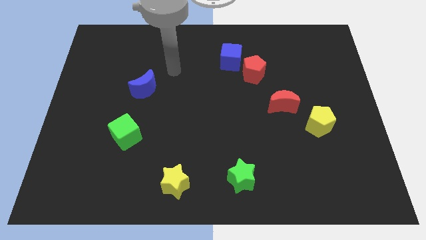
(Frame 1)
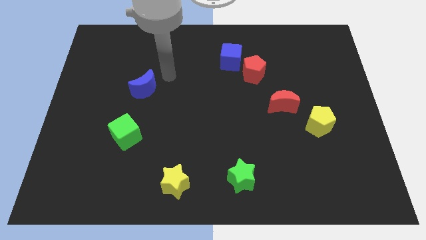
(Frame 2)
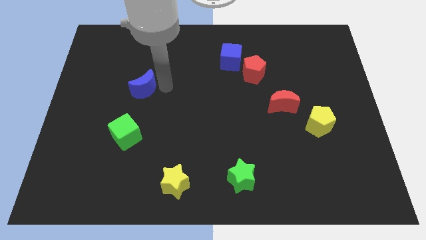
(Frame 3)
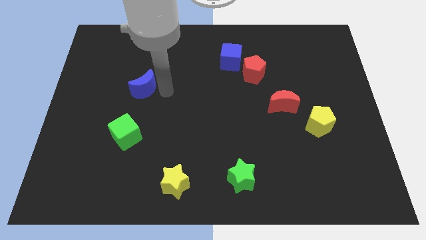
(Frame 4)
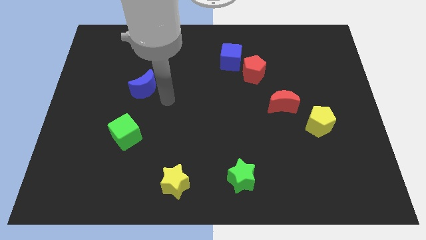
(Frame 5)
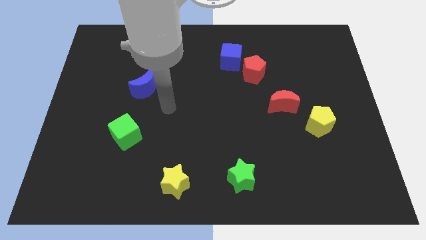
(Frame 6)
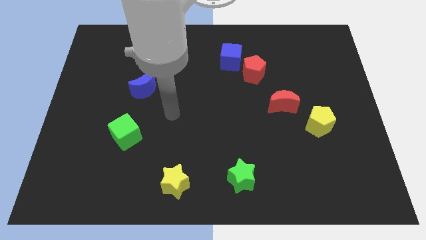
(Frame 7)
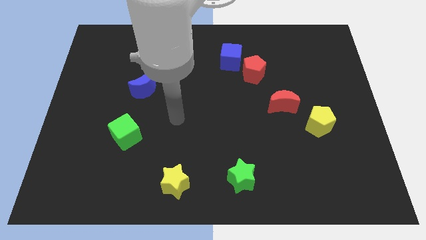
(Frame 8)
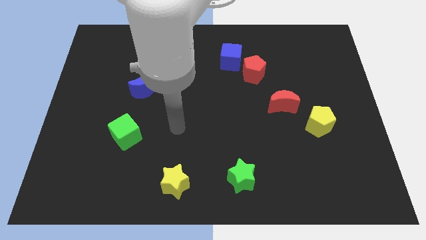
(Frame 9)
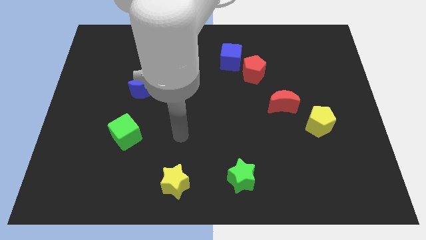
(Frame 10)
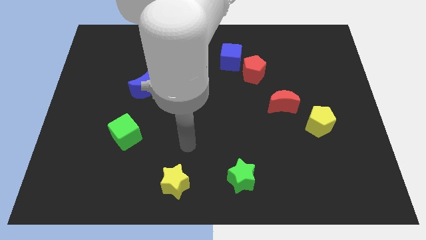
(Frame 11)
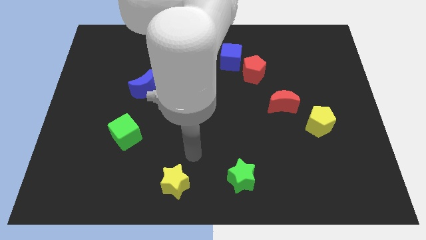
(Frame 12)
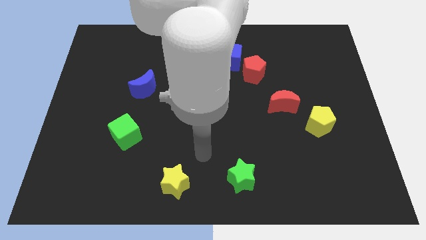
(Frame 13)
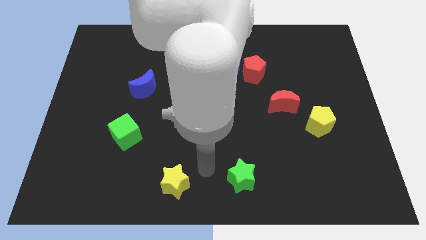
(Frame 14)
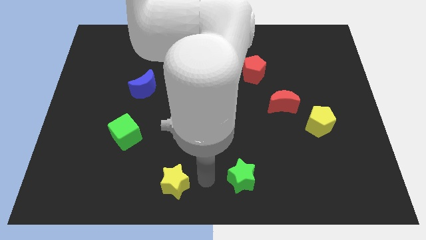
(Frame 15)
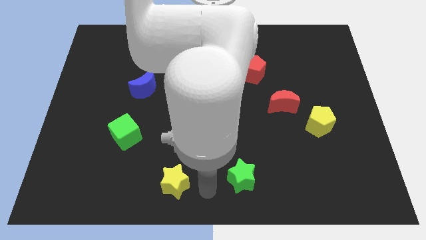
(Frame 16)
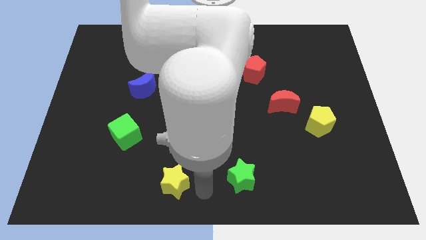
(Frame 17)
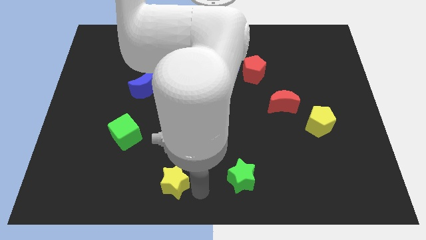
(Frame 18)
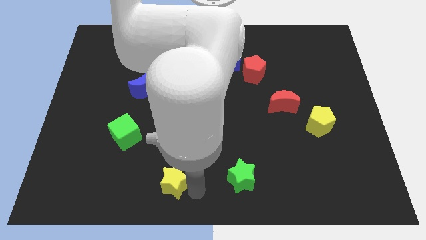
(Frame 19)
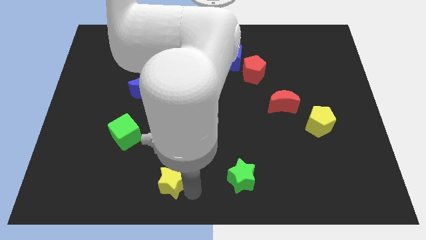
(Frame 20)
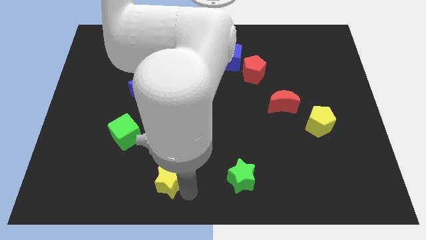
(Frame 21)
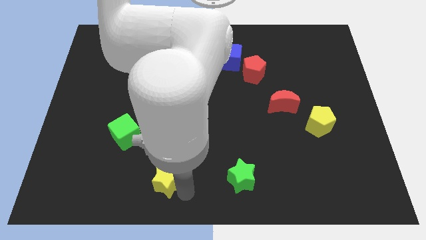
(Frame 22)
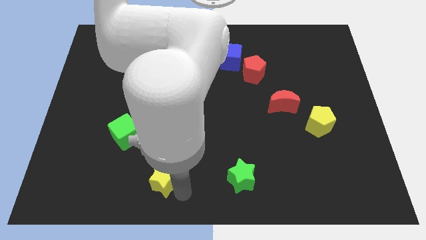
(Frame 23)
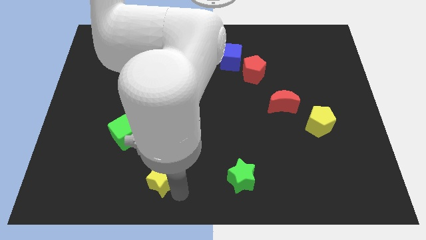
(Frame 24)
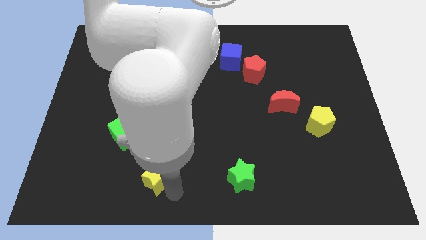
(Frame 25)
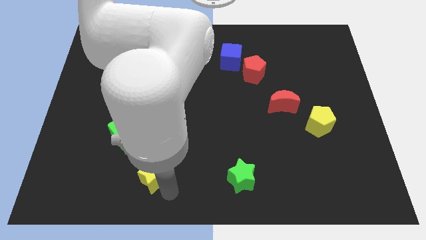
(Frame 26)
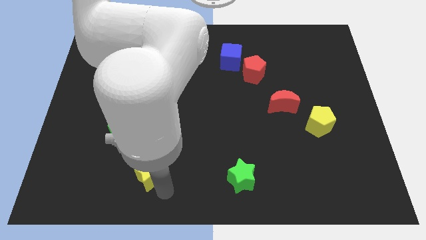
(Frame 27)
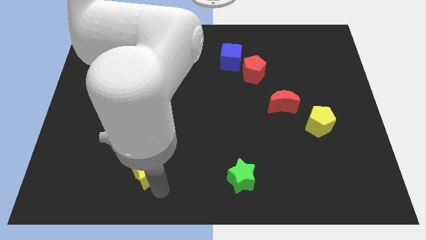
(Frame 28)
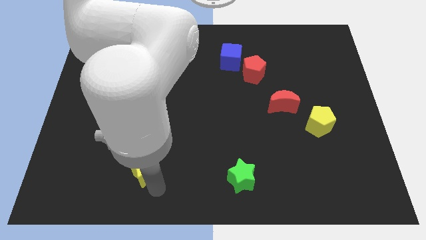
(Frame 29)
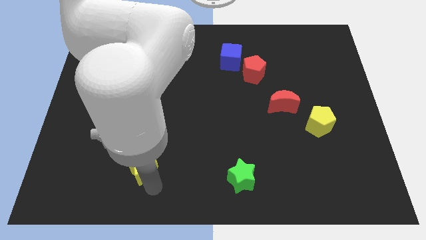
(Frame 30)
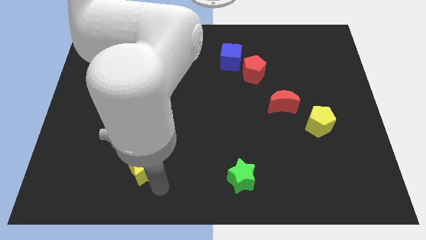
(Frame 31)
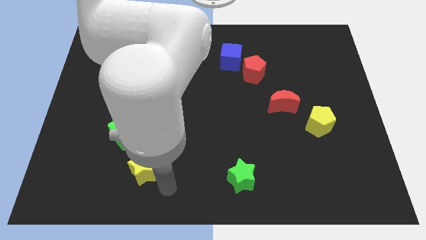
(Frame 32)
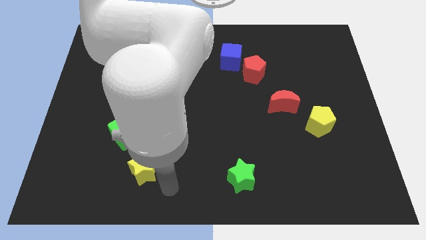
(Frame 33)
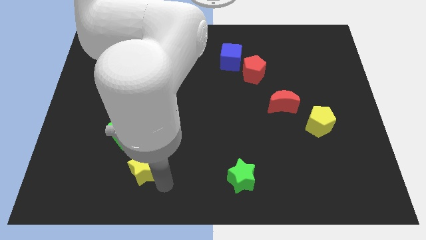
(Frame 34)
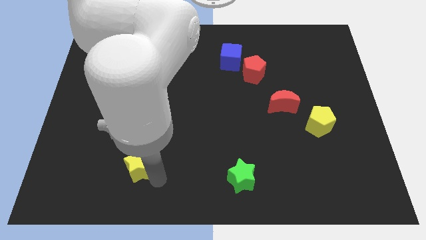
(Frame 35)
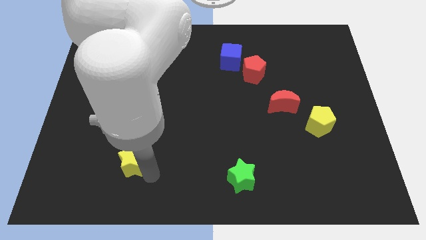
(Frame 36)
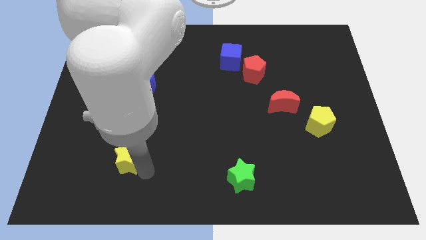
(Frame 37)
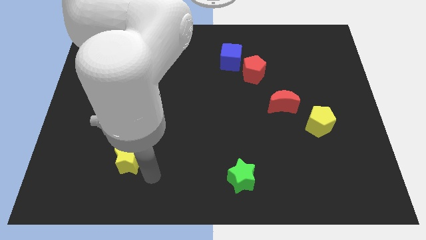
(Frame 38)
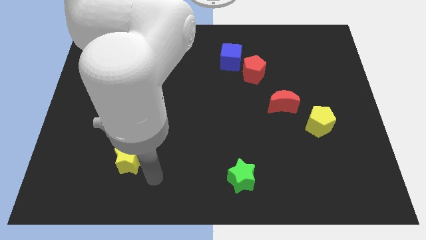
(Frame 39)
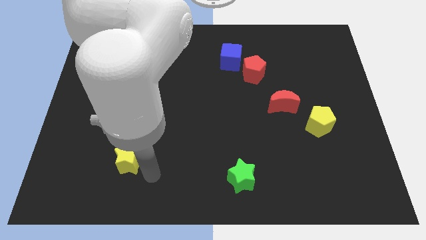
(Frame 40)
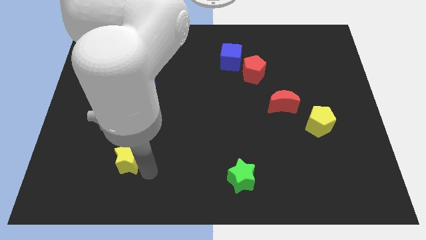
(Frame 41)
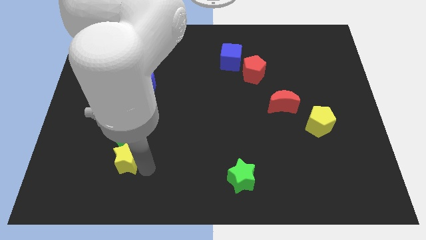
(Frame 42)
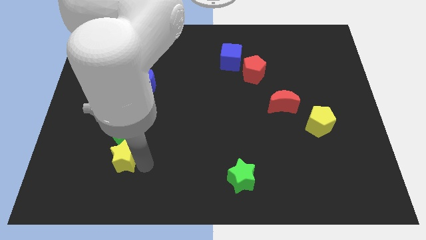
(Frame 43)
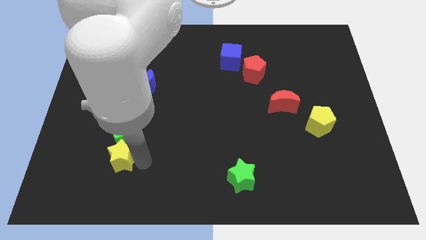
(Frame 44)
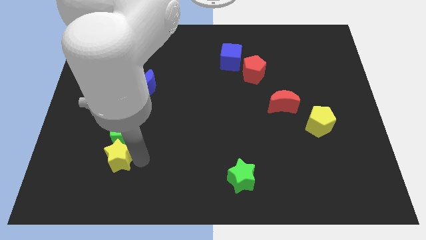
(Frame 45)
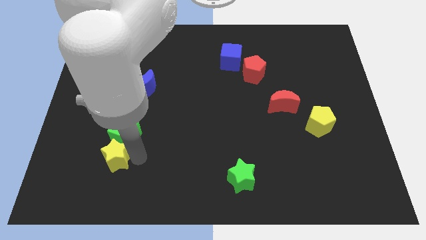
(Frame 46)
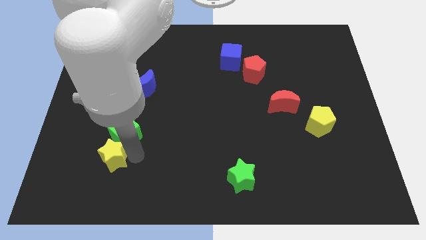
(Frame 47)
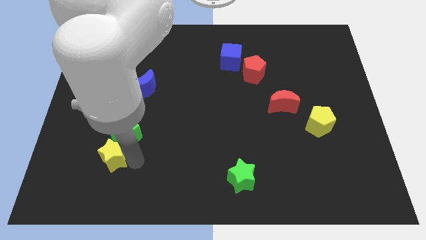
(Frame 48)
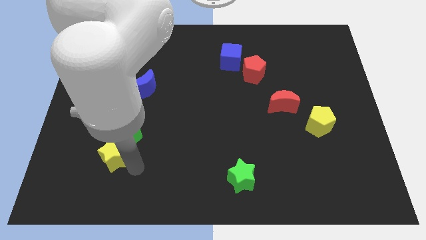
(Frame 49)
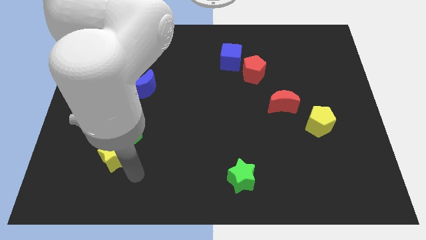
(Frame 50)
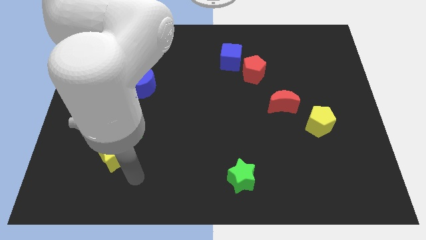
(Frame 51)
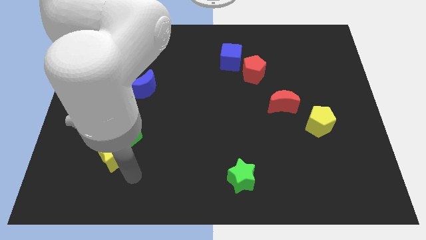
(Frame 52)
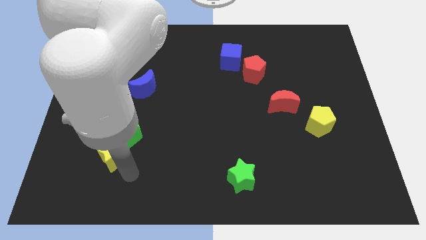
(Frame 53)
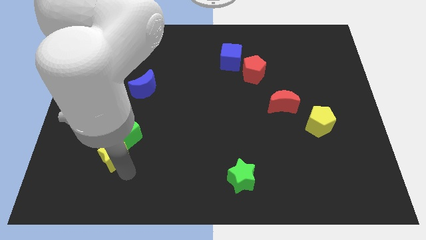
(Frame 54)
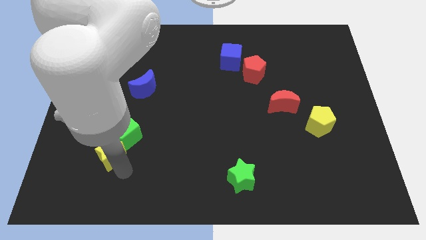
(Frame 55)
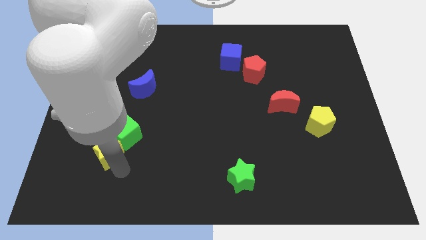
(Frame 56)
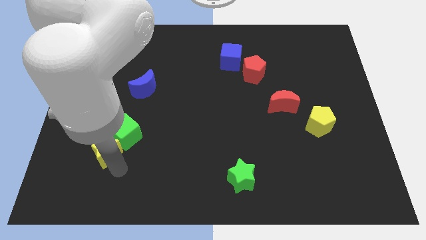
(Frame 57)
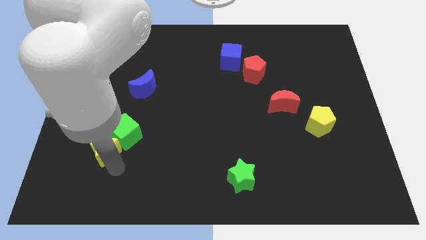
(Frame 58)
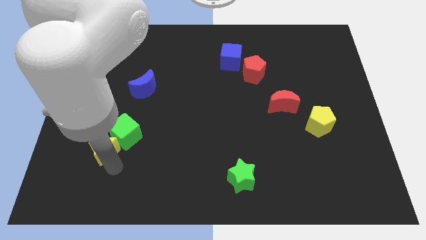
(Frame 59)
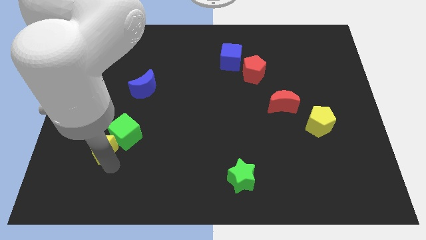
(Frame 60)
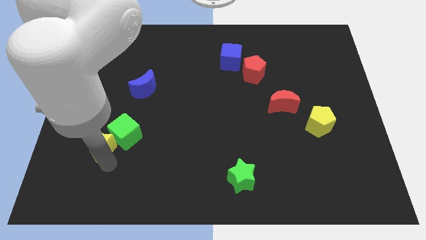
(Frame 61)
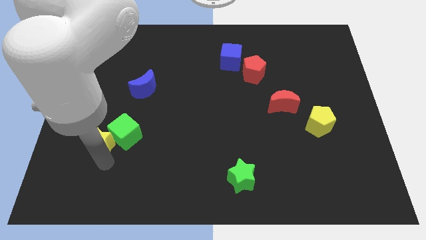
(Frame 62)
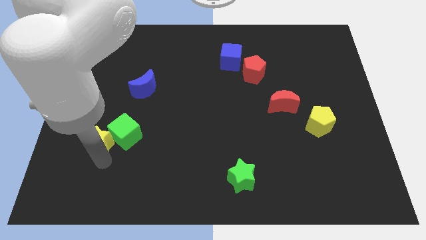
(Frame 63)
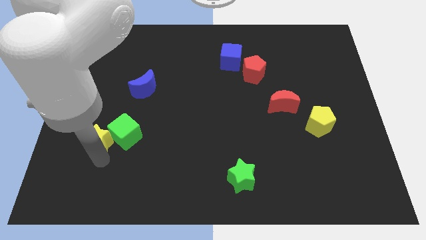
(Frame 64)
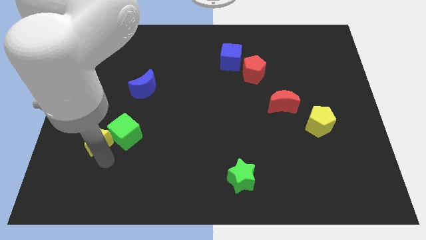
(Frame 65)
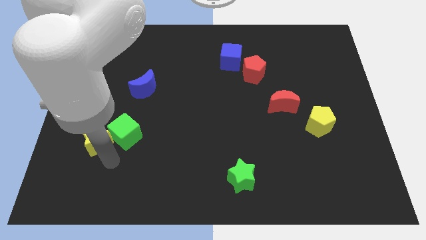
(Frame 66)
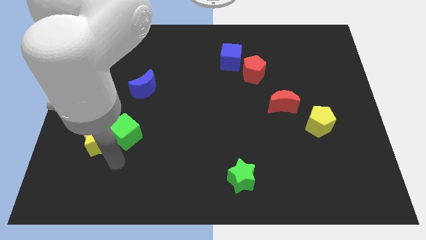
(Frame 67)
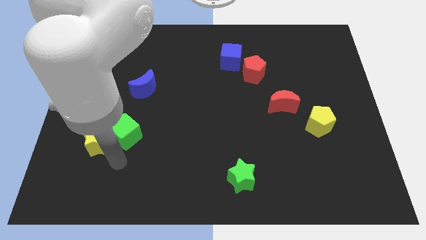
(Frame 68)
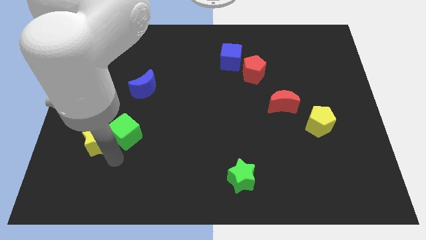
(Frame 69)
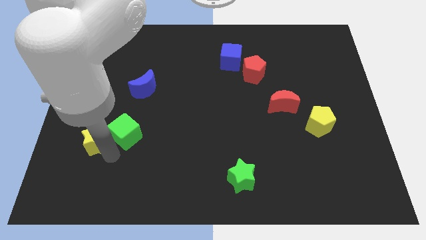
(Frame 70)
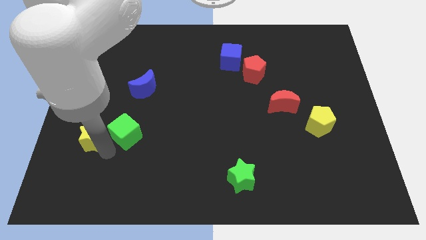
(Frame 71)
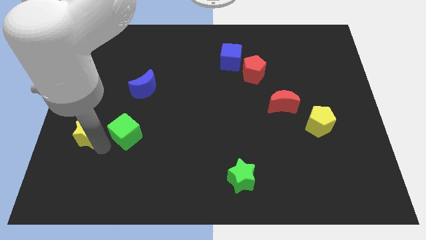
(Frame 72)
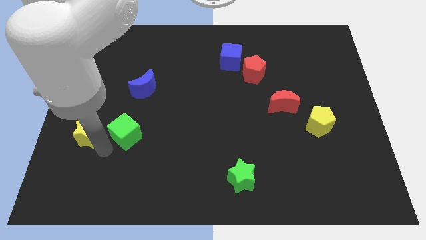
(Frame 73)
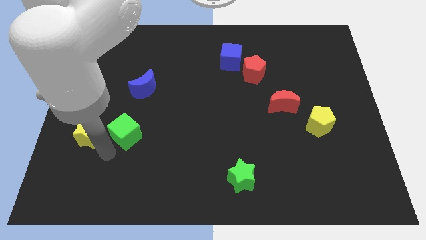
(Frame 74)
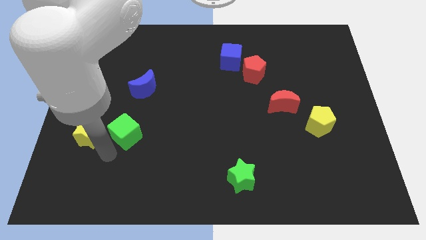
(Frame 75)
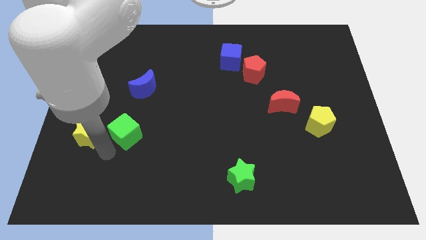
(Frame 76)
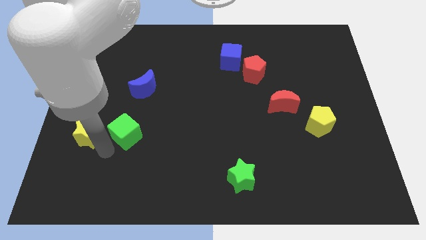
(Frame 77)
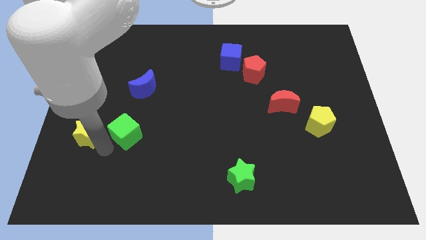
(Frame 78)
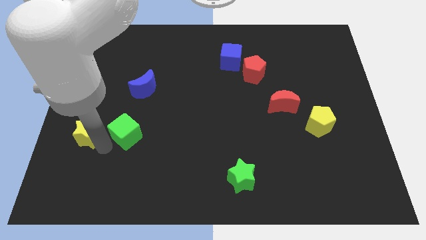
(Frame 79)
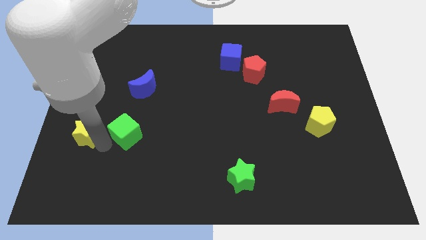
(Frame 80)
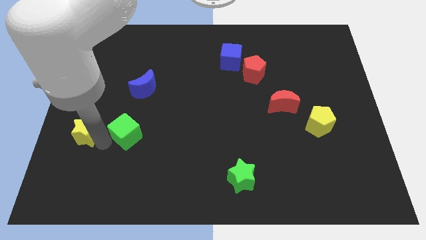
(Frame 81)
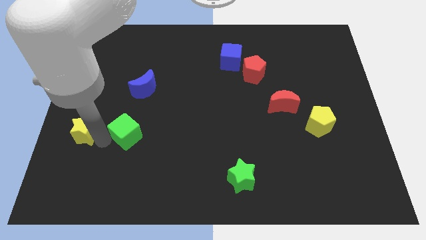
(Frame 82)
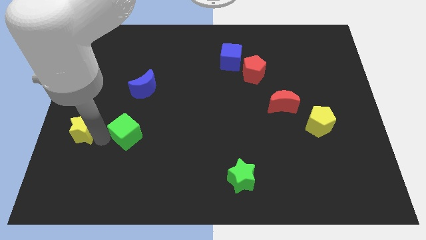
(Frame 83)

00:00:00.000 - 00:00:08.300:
move the yellow star to the left side
